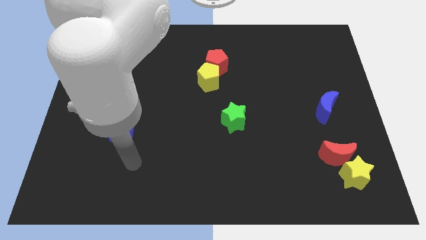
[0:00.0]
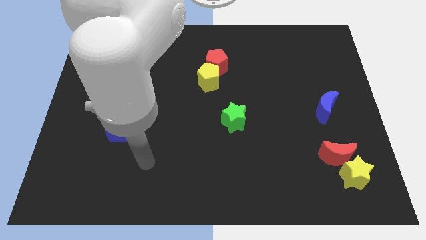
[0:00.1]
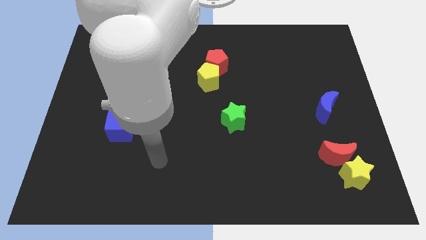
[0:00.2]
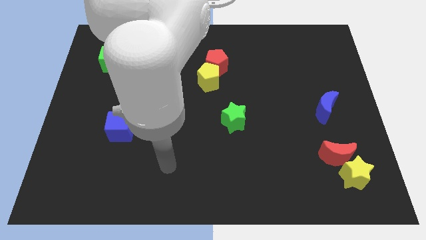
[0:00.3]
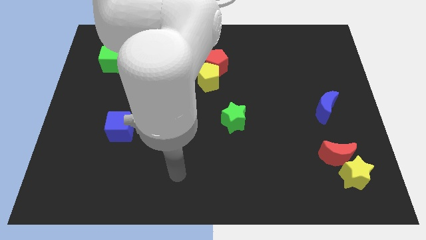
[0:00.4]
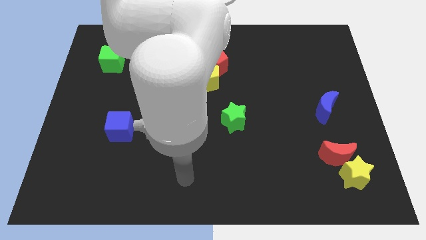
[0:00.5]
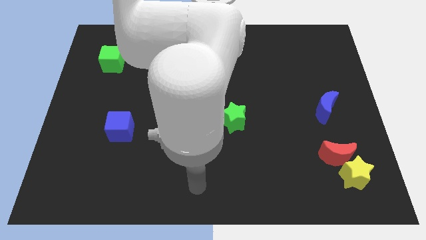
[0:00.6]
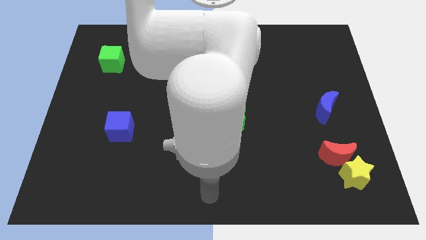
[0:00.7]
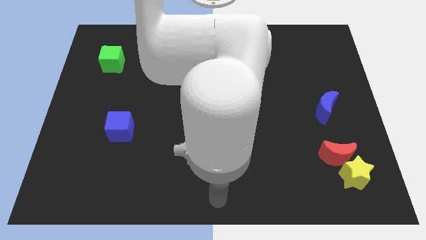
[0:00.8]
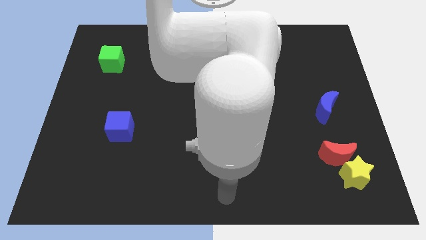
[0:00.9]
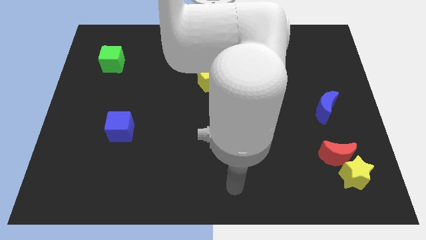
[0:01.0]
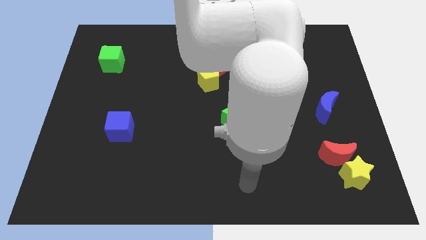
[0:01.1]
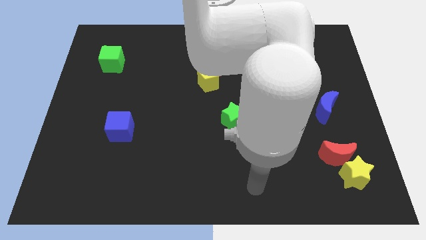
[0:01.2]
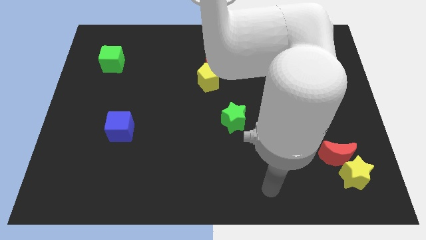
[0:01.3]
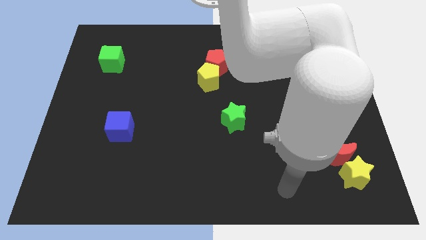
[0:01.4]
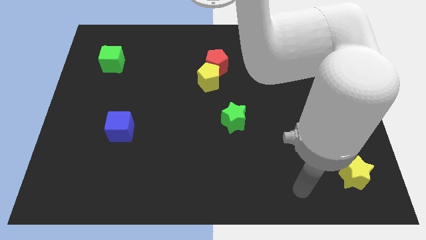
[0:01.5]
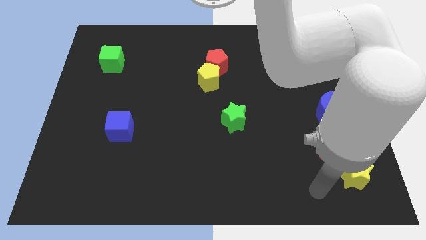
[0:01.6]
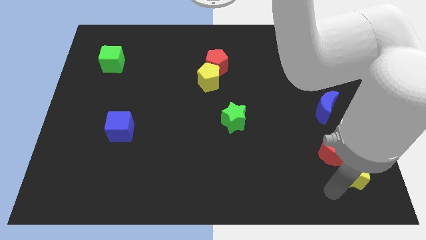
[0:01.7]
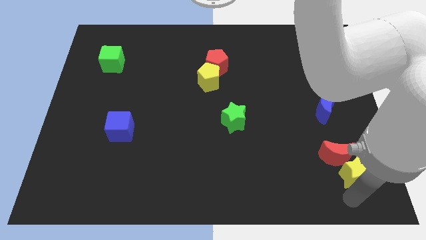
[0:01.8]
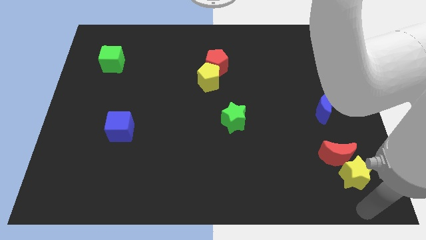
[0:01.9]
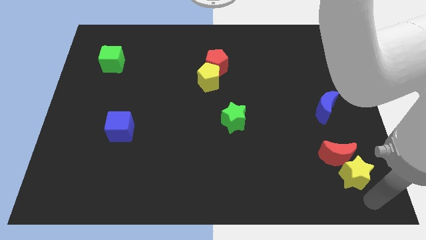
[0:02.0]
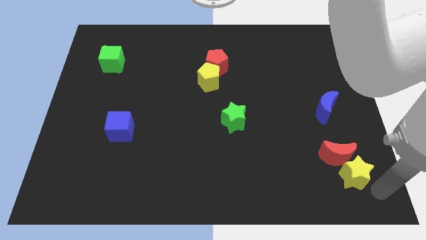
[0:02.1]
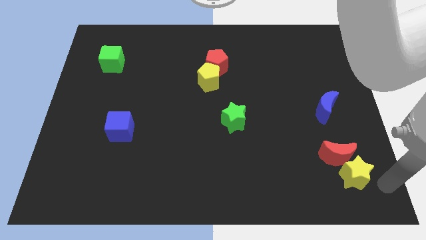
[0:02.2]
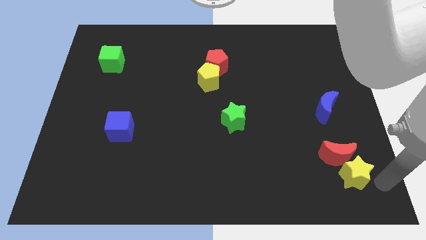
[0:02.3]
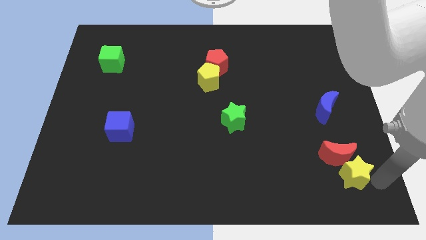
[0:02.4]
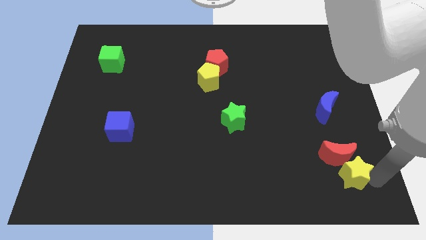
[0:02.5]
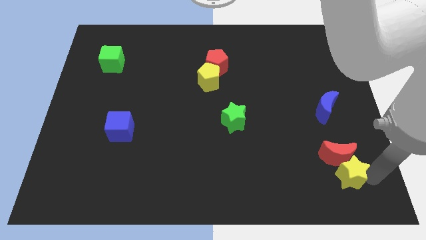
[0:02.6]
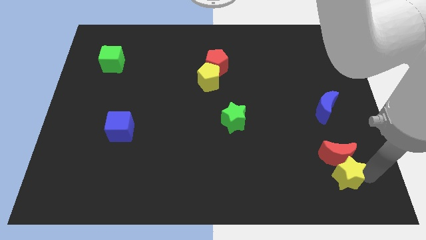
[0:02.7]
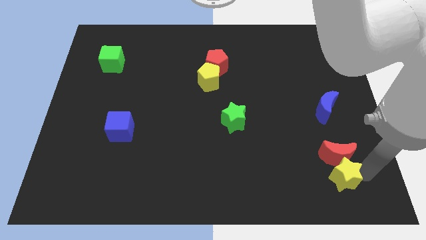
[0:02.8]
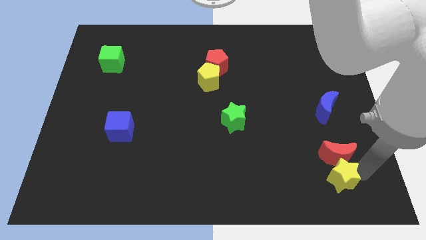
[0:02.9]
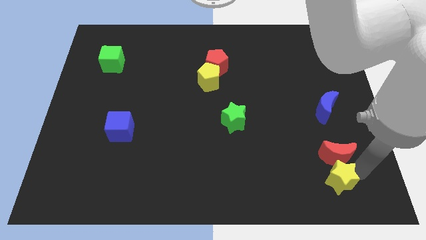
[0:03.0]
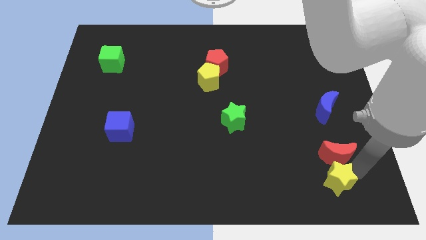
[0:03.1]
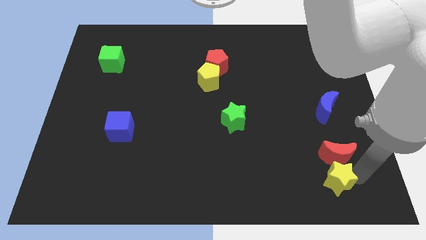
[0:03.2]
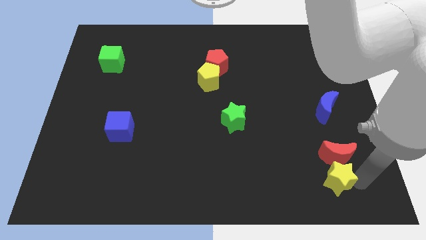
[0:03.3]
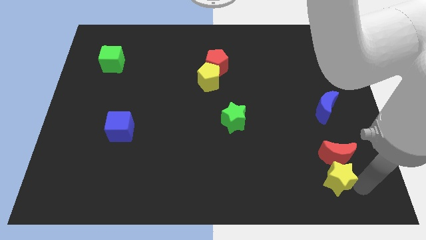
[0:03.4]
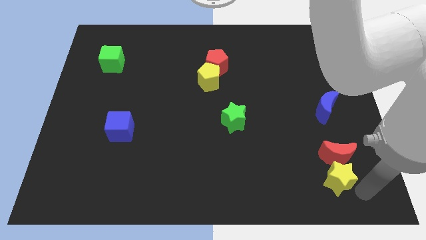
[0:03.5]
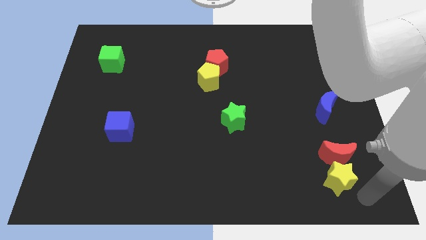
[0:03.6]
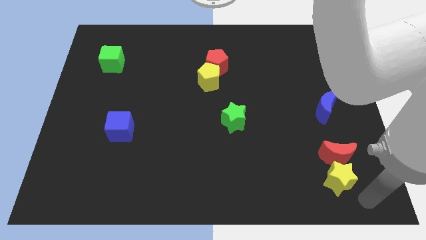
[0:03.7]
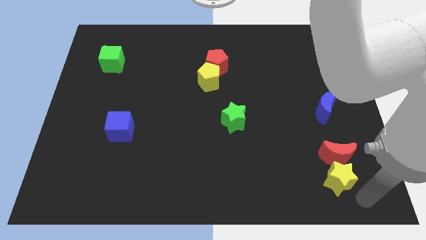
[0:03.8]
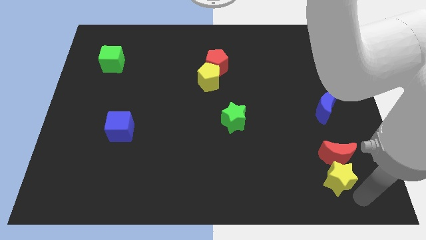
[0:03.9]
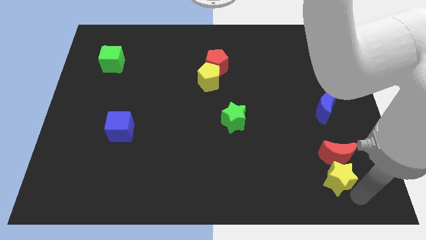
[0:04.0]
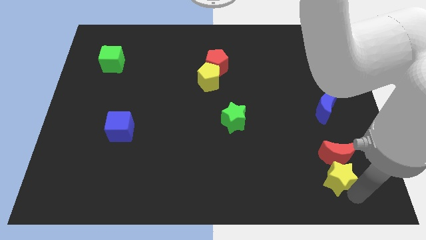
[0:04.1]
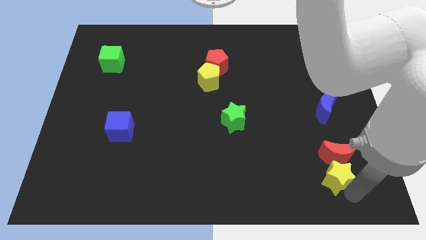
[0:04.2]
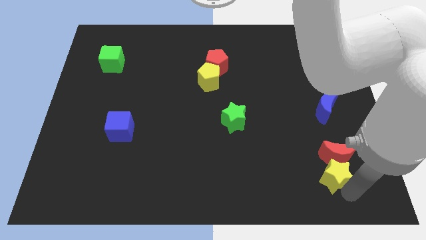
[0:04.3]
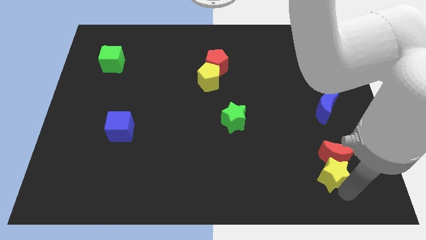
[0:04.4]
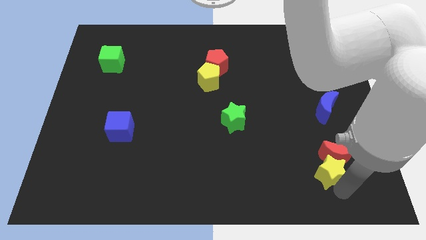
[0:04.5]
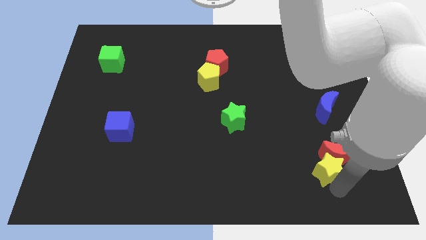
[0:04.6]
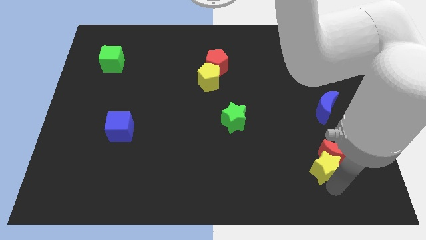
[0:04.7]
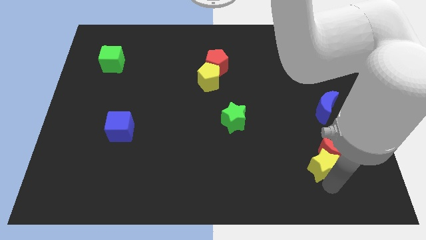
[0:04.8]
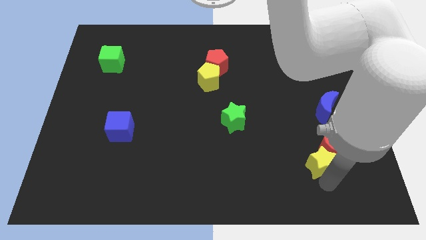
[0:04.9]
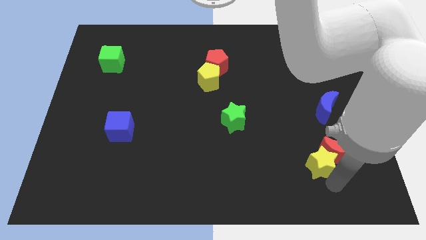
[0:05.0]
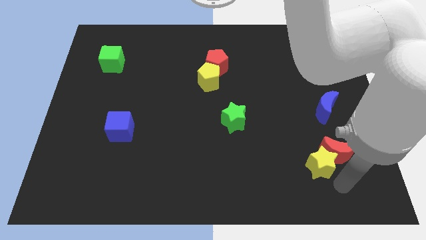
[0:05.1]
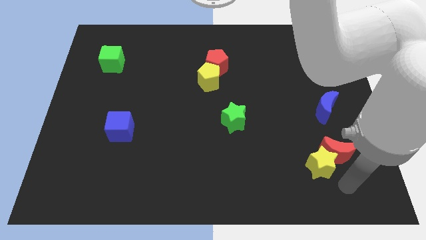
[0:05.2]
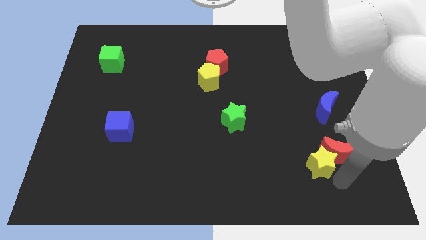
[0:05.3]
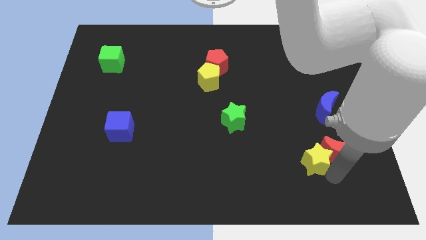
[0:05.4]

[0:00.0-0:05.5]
move the yellow star a little bit diagonally upwards and left

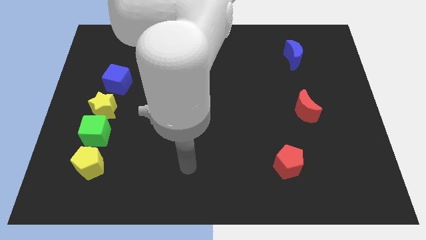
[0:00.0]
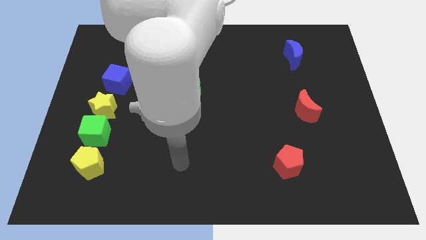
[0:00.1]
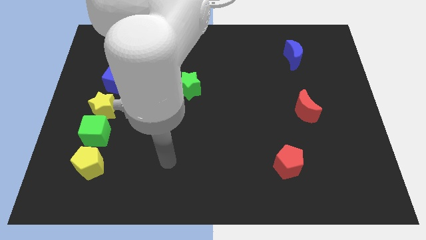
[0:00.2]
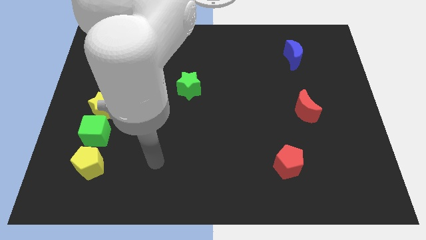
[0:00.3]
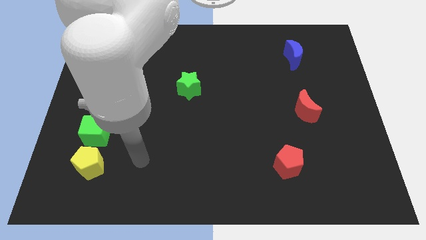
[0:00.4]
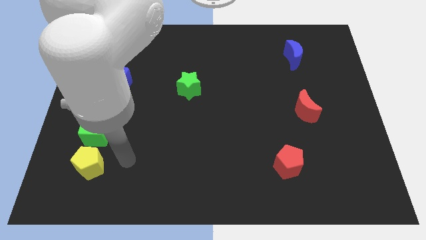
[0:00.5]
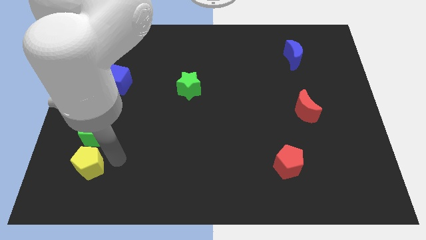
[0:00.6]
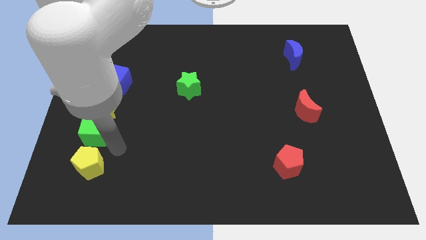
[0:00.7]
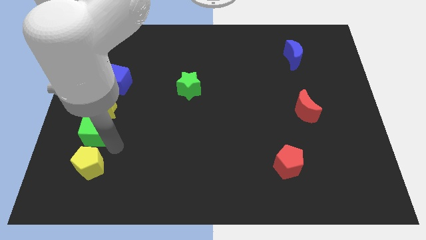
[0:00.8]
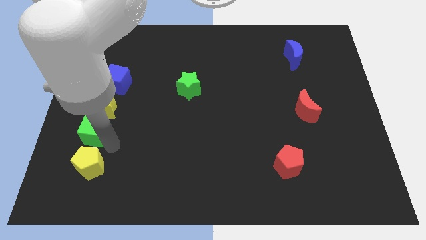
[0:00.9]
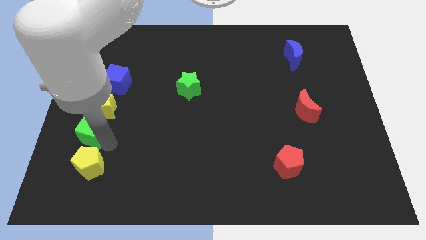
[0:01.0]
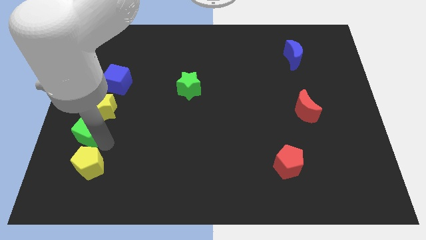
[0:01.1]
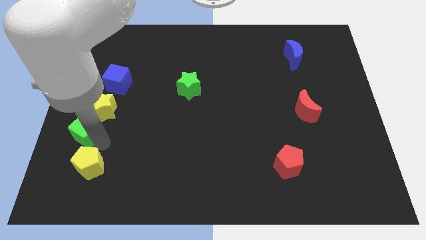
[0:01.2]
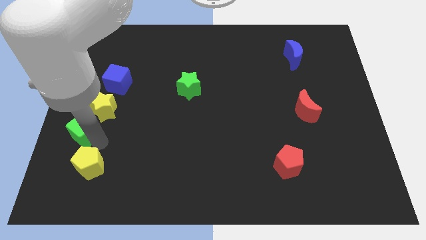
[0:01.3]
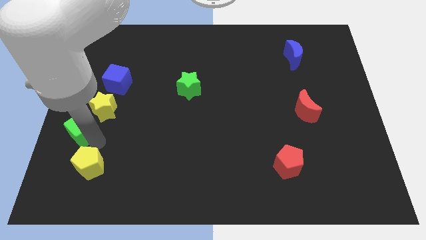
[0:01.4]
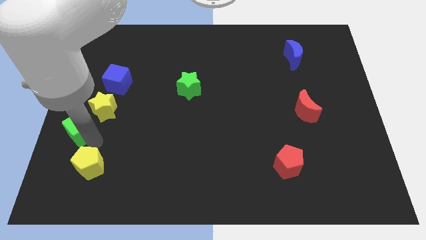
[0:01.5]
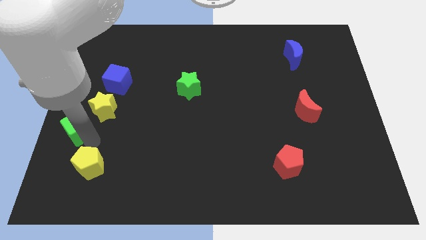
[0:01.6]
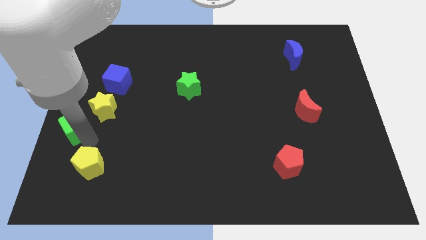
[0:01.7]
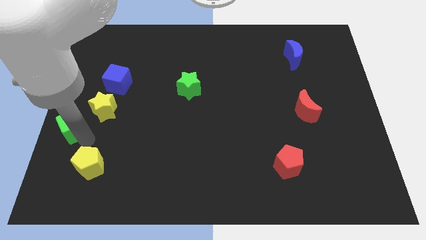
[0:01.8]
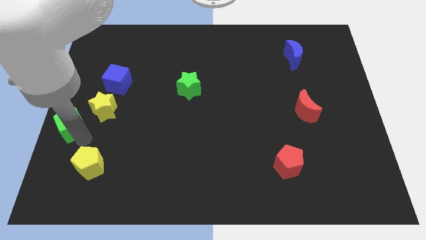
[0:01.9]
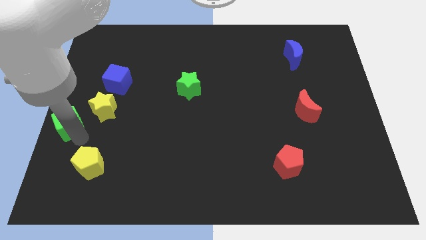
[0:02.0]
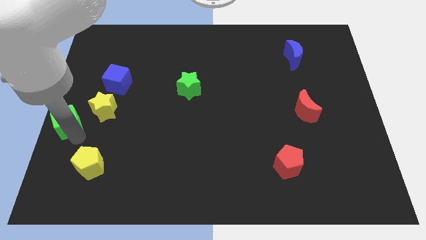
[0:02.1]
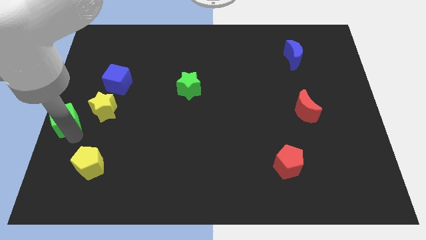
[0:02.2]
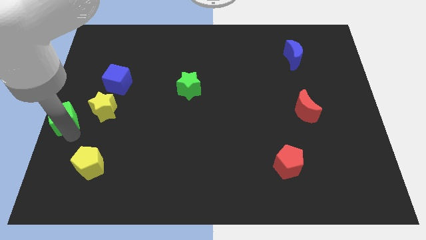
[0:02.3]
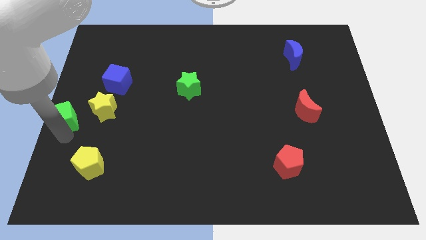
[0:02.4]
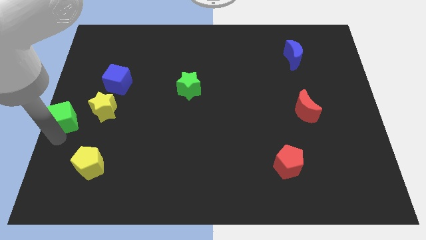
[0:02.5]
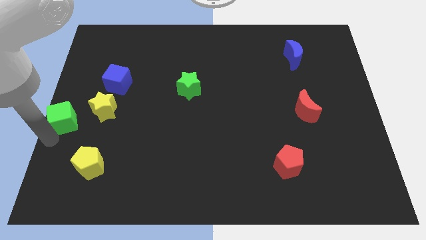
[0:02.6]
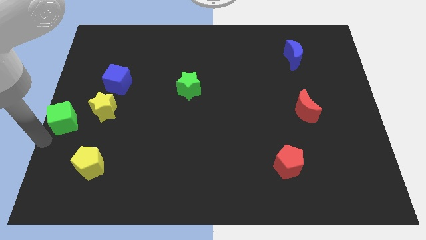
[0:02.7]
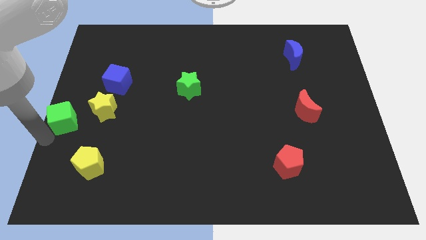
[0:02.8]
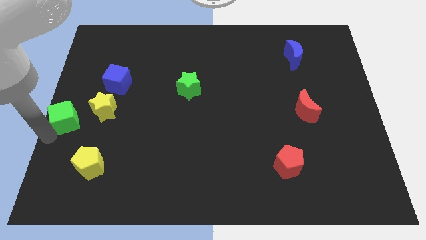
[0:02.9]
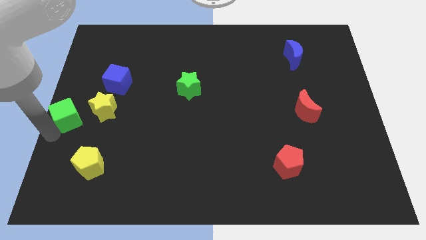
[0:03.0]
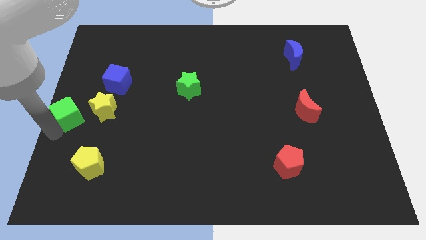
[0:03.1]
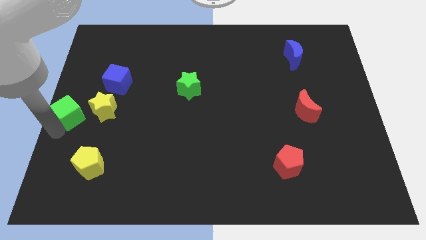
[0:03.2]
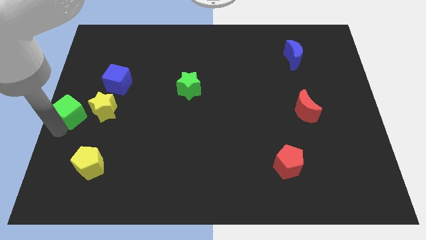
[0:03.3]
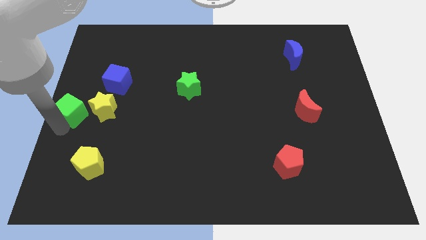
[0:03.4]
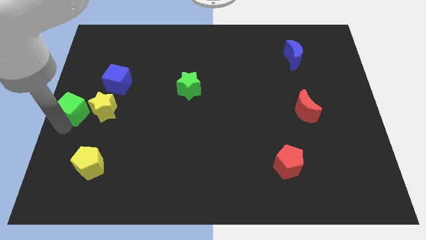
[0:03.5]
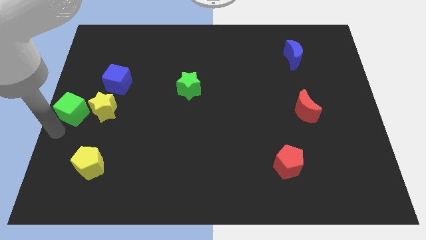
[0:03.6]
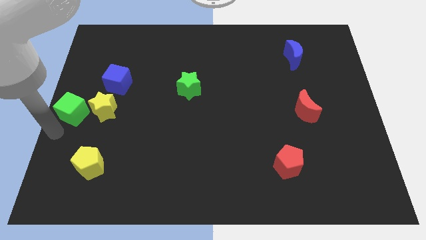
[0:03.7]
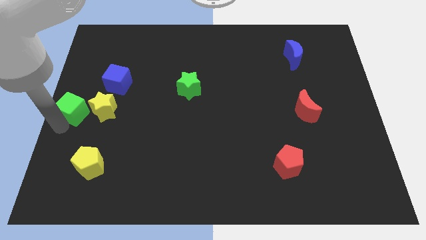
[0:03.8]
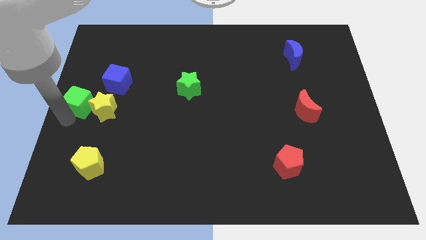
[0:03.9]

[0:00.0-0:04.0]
slightly slide the green cube up
